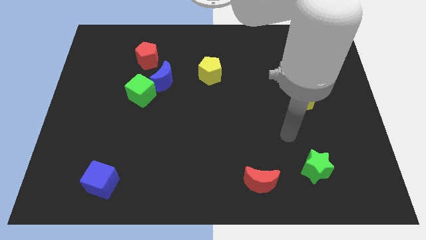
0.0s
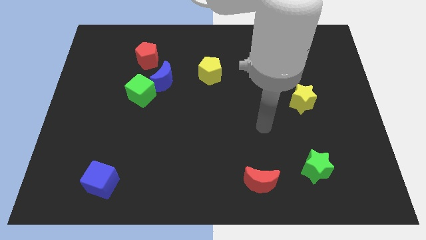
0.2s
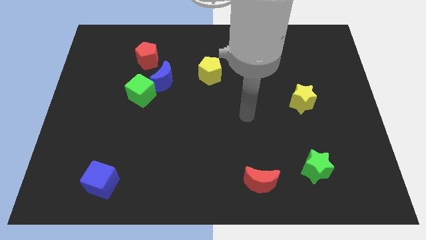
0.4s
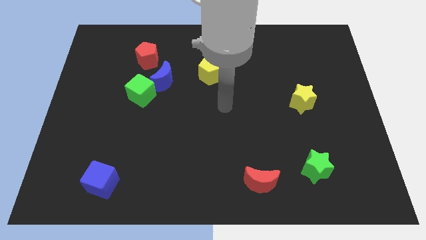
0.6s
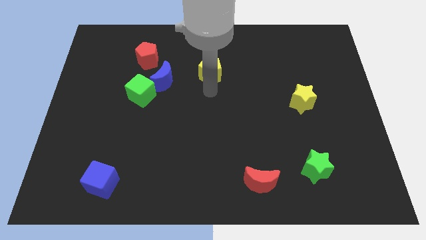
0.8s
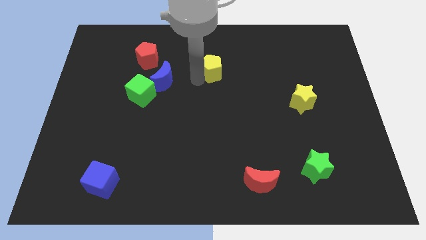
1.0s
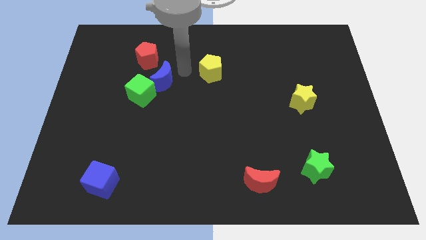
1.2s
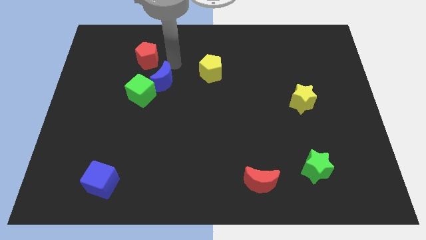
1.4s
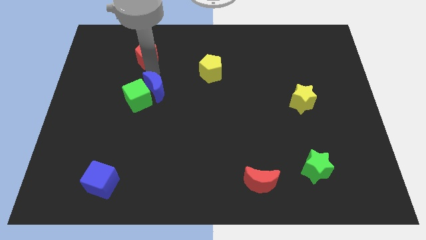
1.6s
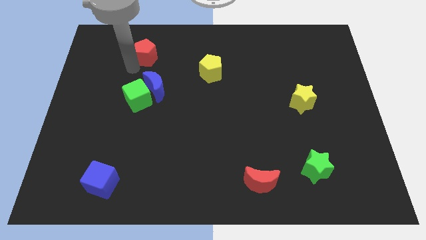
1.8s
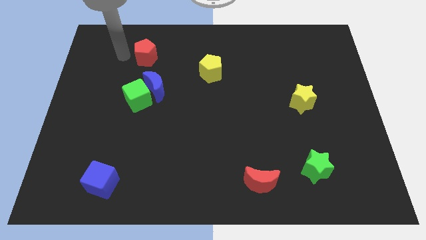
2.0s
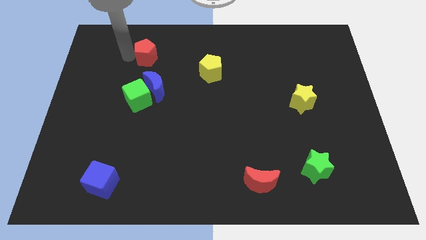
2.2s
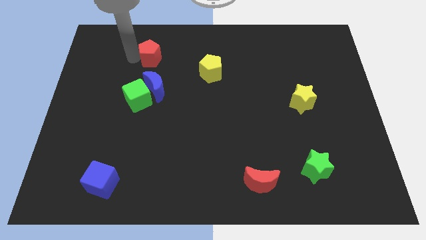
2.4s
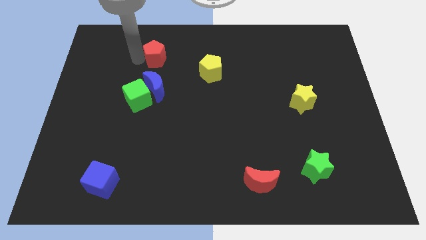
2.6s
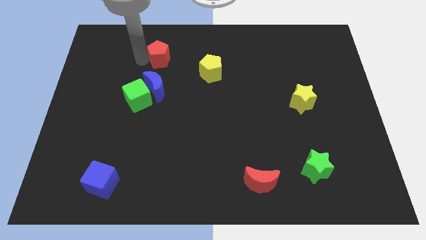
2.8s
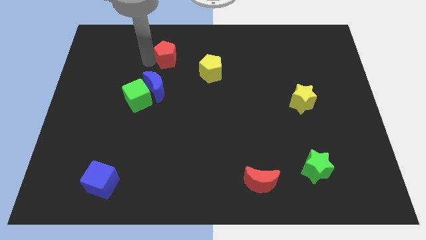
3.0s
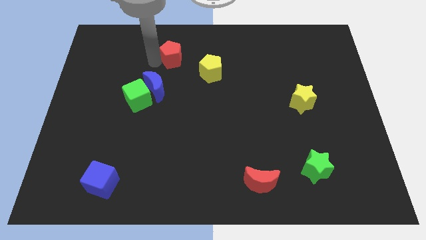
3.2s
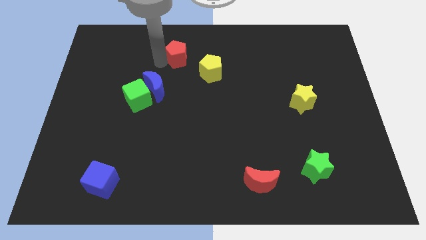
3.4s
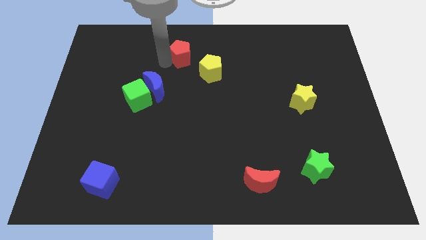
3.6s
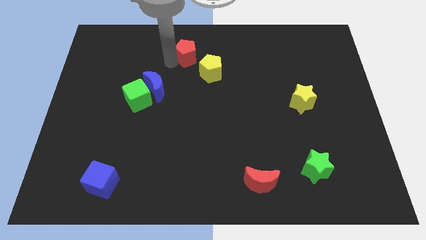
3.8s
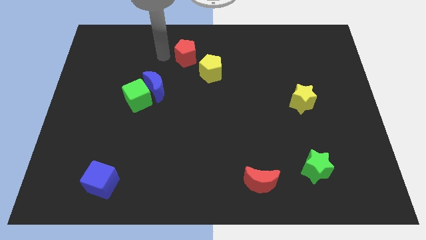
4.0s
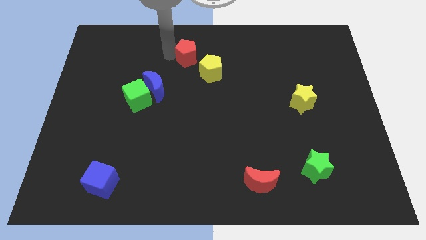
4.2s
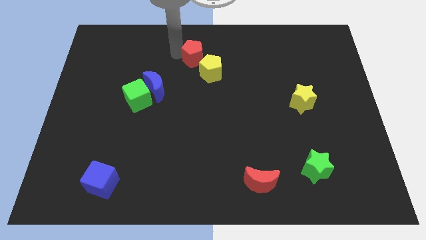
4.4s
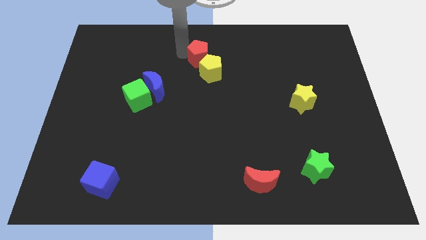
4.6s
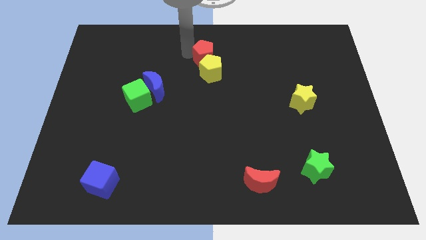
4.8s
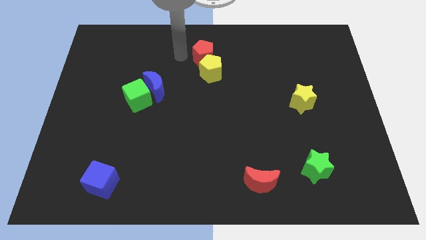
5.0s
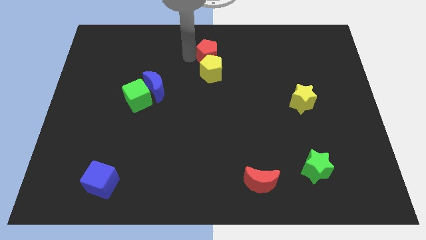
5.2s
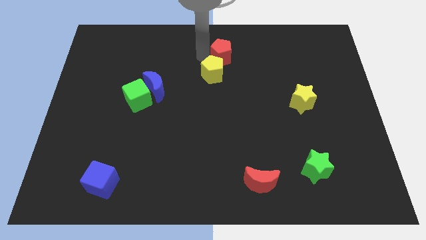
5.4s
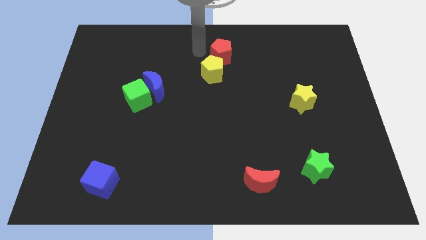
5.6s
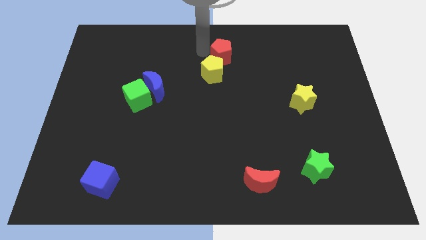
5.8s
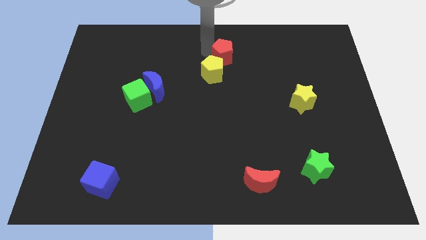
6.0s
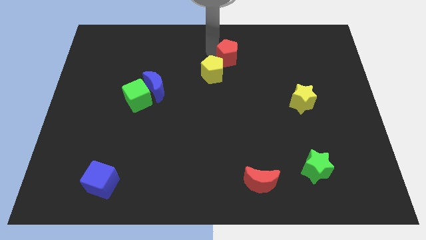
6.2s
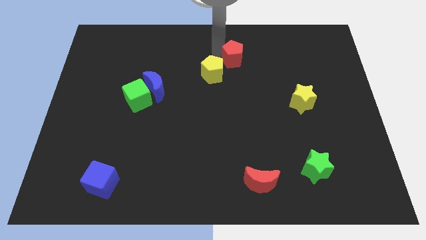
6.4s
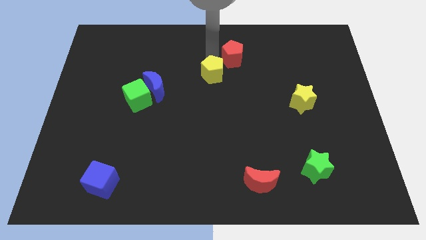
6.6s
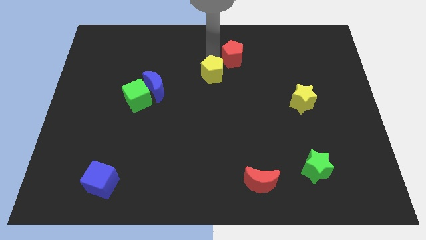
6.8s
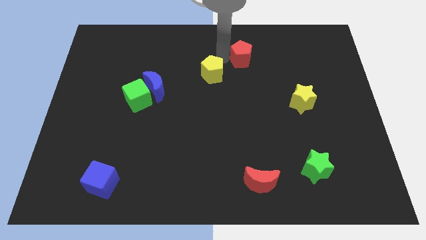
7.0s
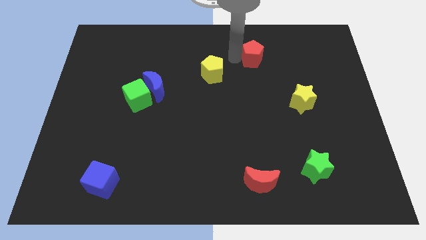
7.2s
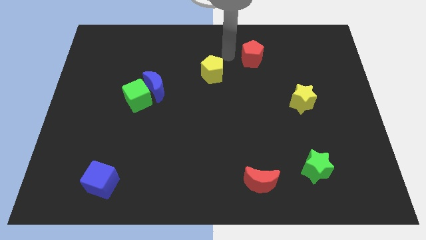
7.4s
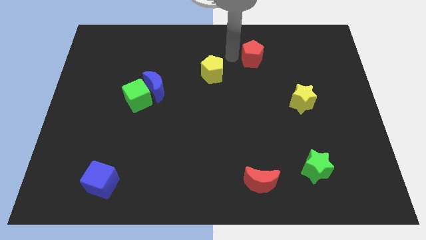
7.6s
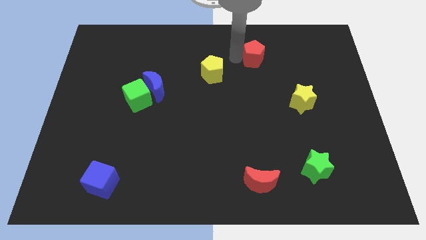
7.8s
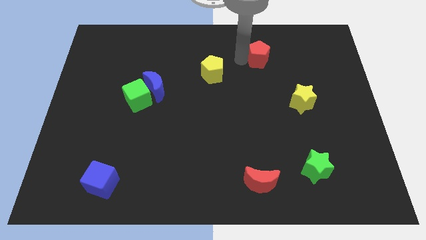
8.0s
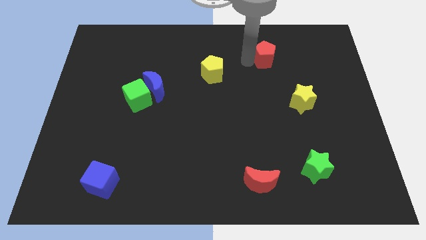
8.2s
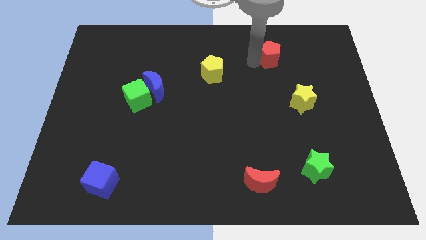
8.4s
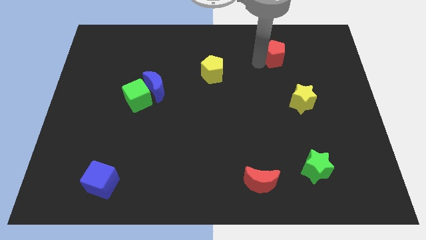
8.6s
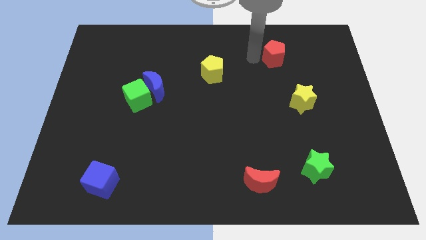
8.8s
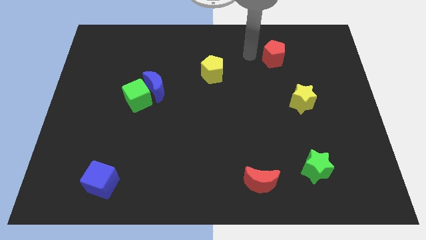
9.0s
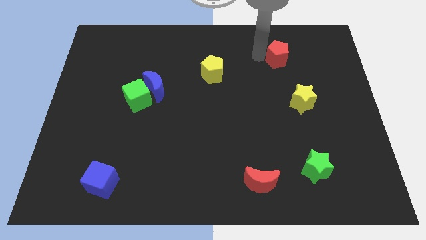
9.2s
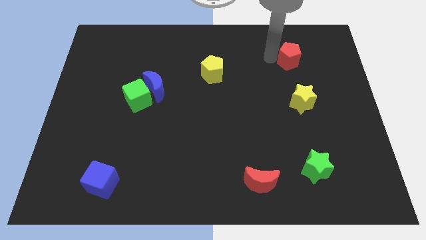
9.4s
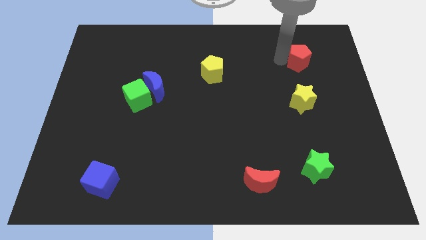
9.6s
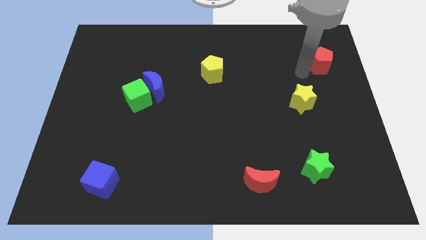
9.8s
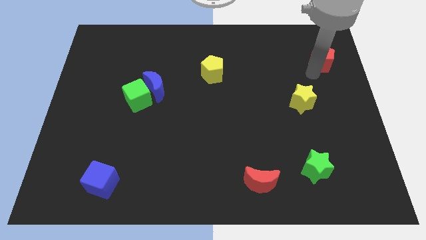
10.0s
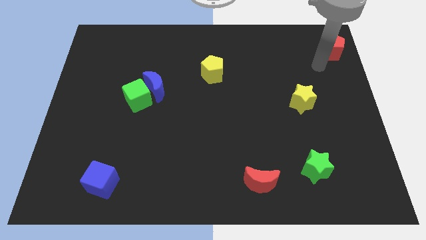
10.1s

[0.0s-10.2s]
slide the red pentagon to the upper right corner

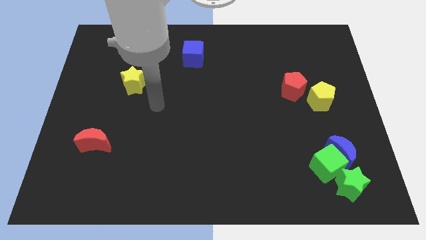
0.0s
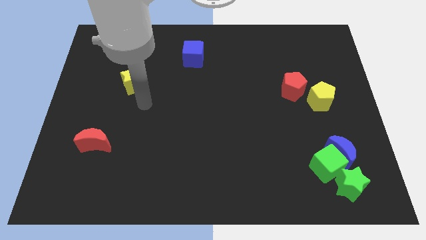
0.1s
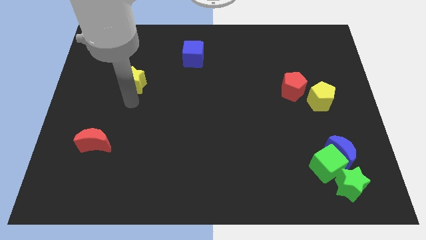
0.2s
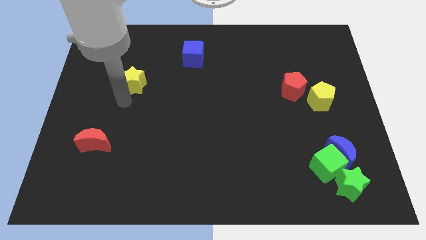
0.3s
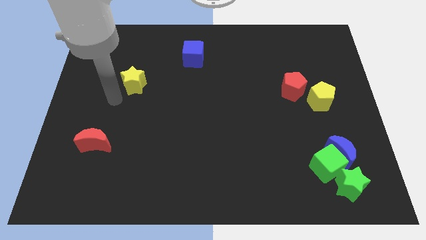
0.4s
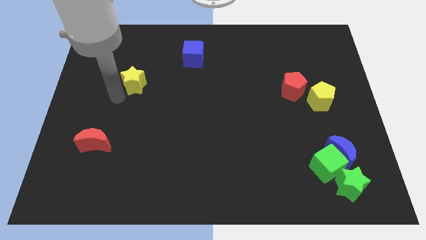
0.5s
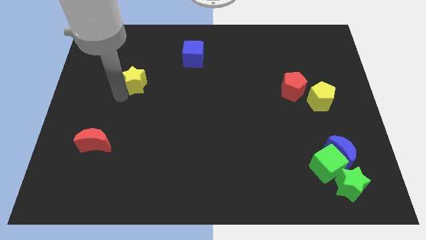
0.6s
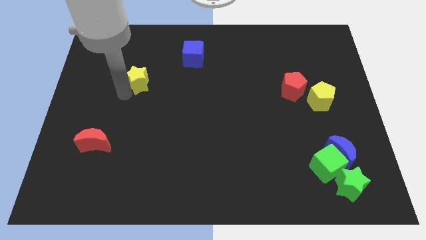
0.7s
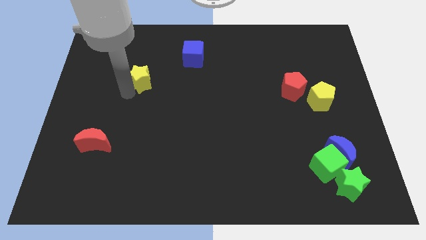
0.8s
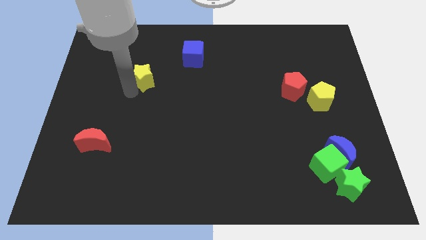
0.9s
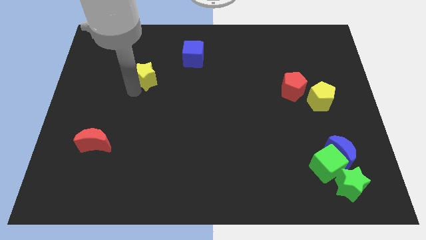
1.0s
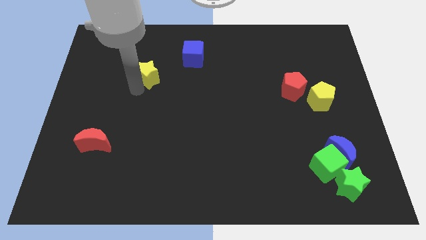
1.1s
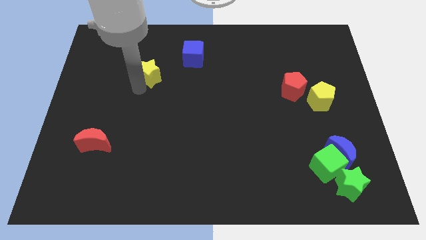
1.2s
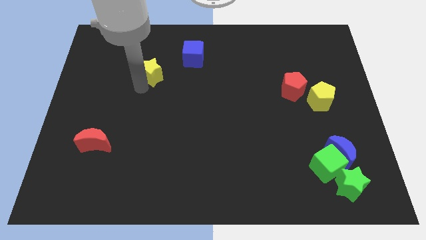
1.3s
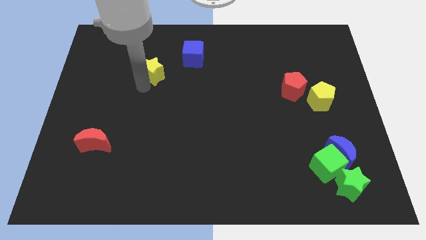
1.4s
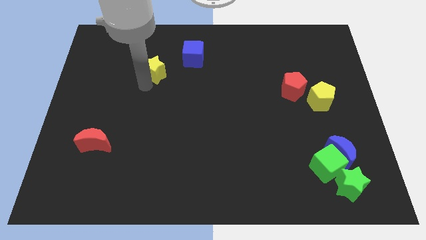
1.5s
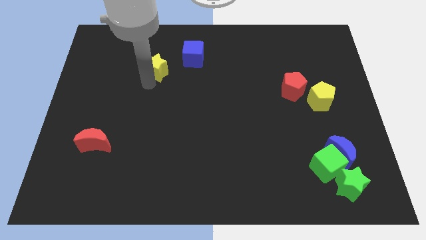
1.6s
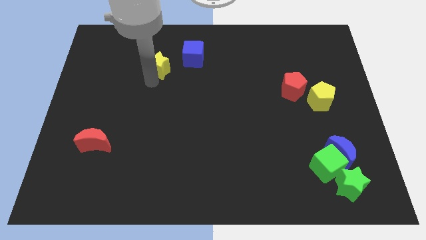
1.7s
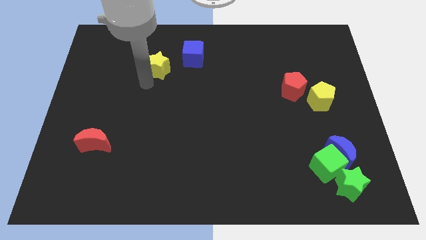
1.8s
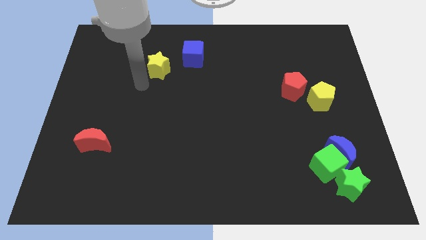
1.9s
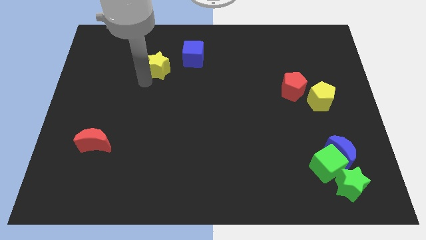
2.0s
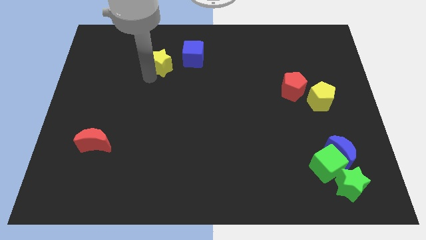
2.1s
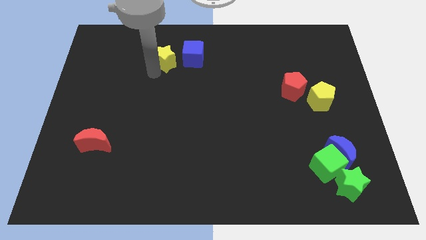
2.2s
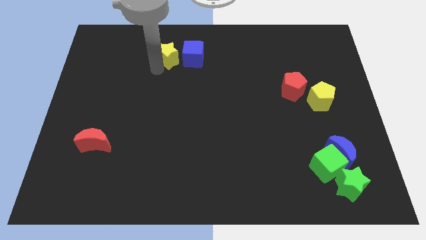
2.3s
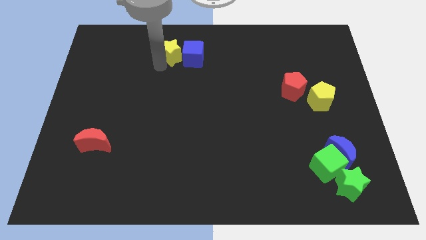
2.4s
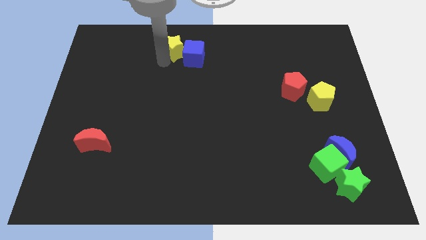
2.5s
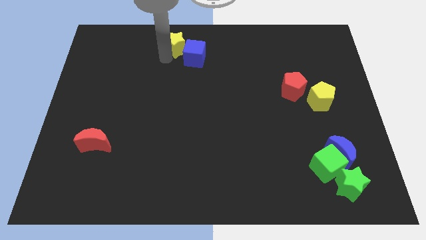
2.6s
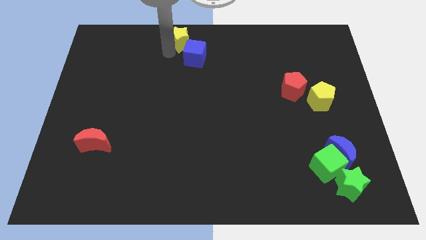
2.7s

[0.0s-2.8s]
slide the yellow star to the towards your base
